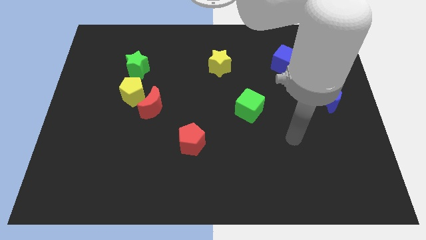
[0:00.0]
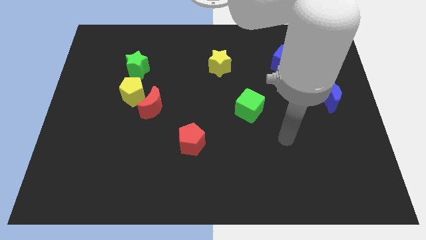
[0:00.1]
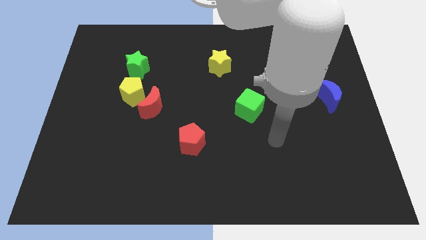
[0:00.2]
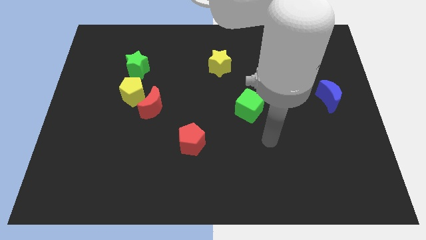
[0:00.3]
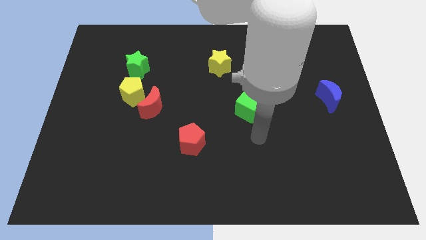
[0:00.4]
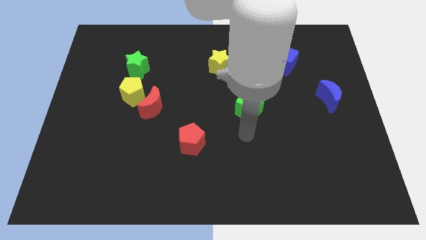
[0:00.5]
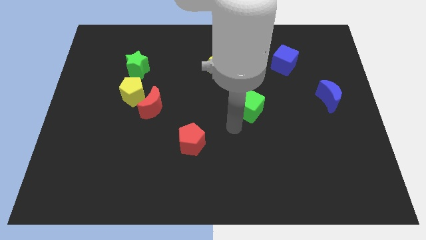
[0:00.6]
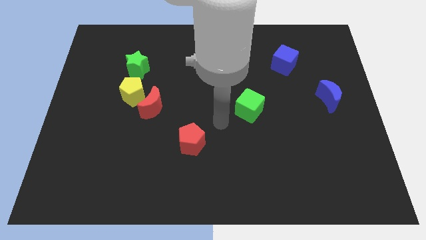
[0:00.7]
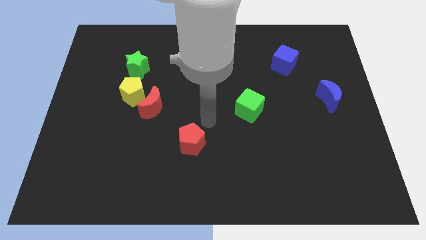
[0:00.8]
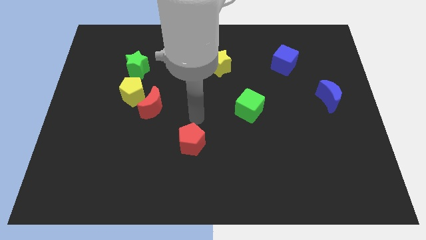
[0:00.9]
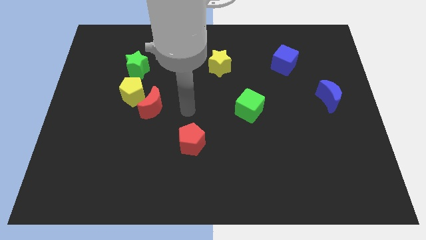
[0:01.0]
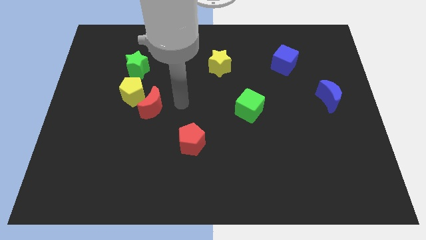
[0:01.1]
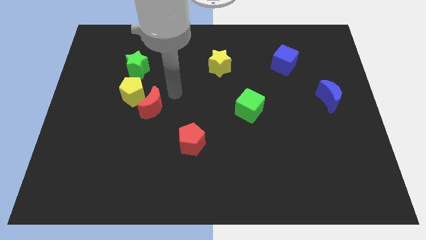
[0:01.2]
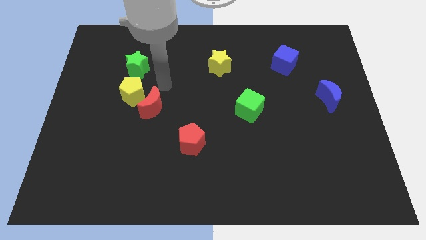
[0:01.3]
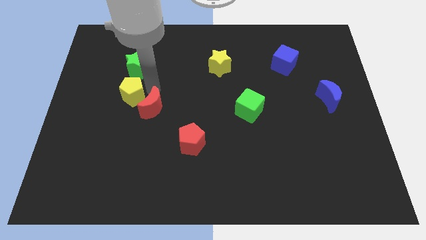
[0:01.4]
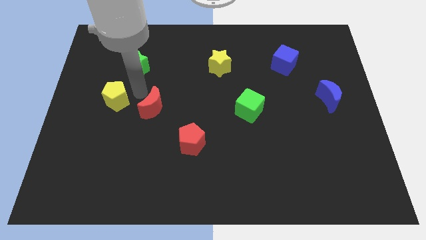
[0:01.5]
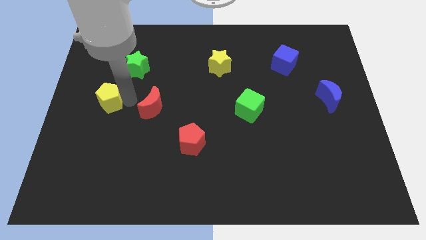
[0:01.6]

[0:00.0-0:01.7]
pull the red moon apart from the yellow pentagon

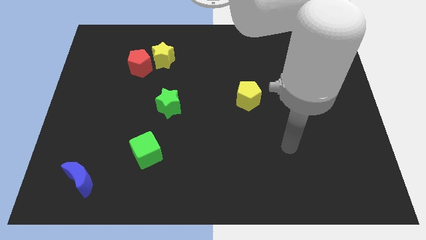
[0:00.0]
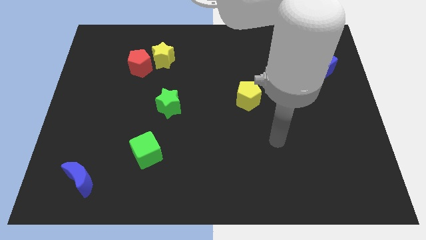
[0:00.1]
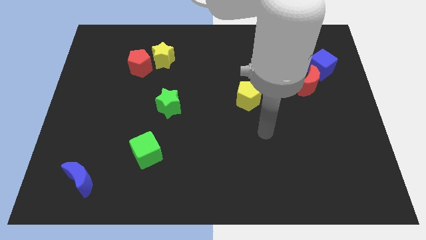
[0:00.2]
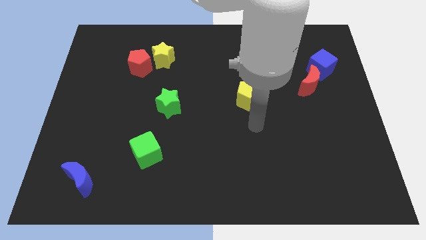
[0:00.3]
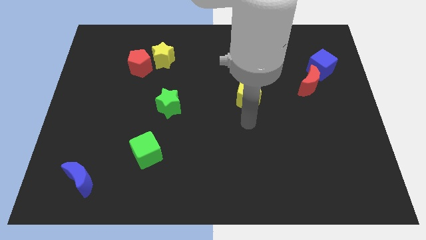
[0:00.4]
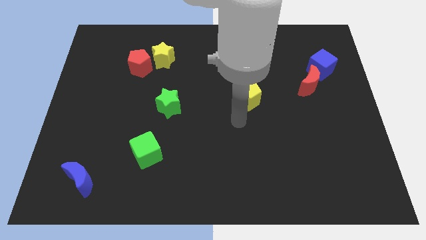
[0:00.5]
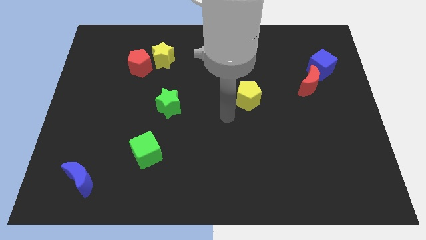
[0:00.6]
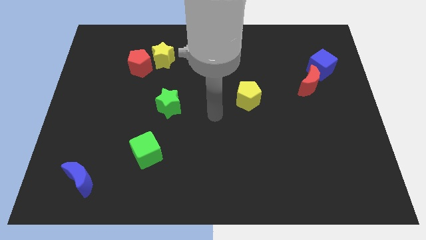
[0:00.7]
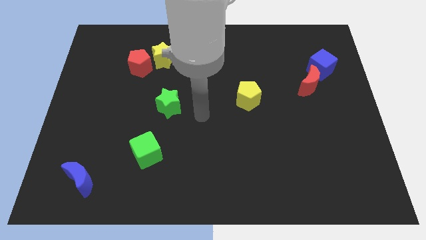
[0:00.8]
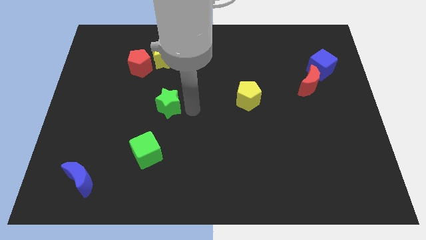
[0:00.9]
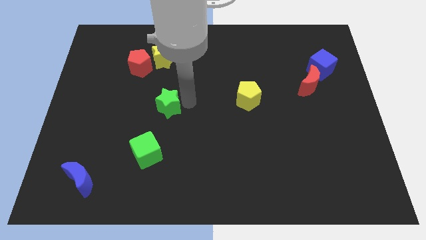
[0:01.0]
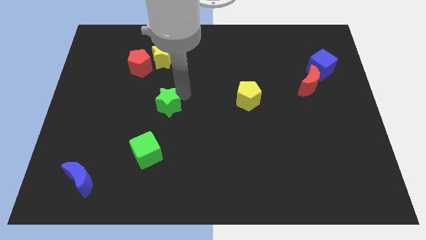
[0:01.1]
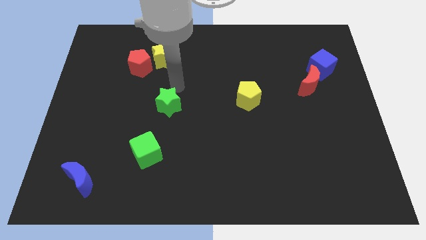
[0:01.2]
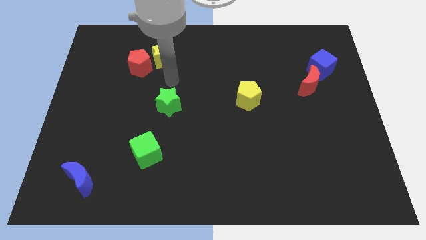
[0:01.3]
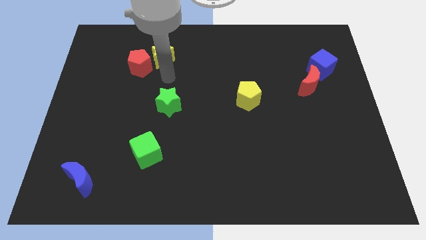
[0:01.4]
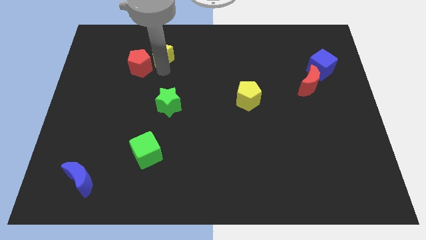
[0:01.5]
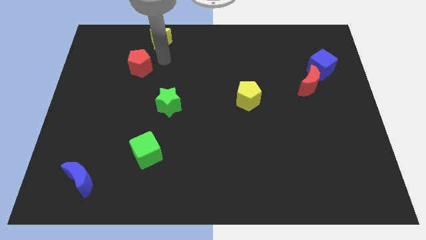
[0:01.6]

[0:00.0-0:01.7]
pull the red pentagon apart from the yellow star

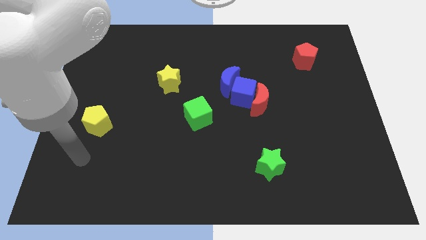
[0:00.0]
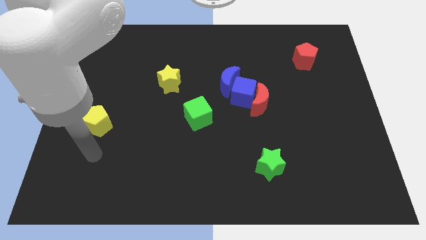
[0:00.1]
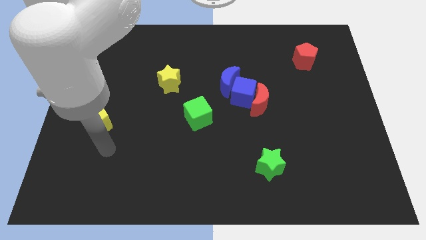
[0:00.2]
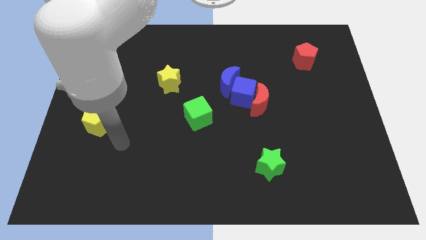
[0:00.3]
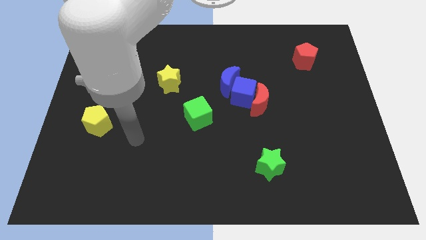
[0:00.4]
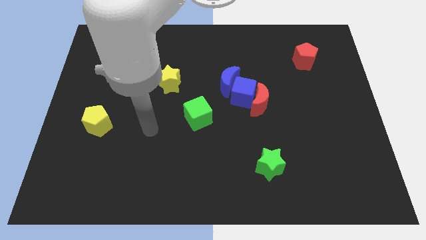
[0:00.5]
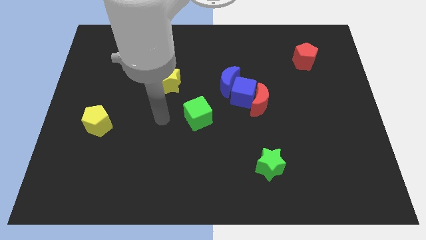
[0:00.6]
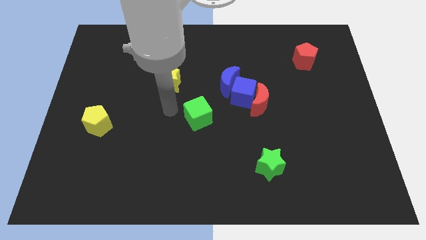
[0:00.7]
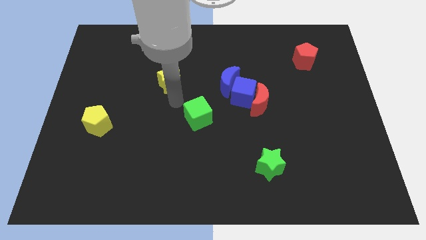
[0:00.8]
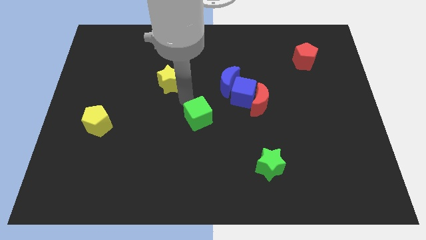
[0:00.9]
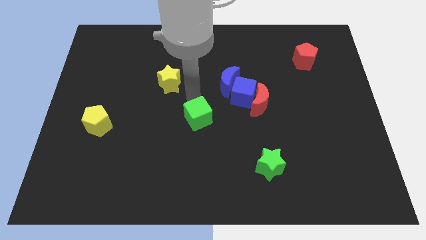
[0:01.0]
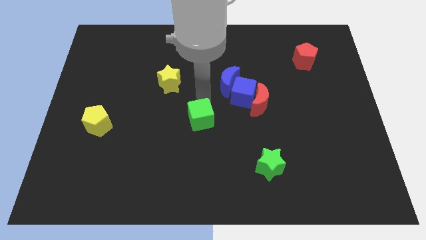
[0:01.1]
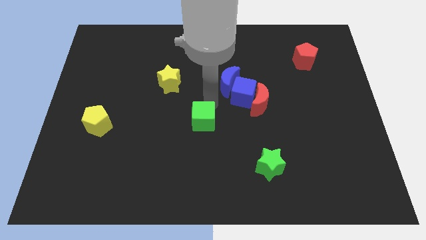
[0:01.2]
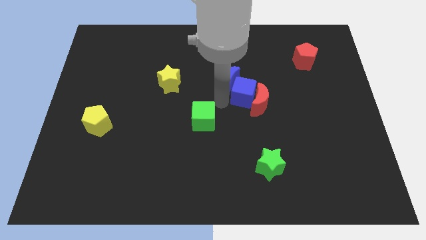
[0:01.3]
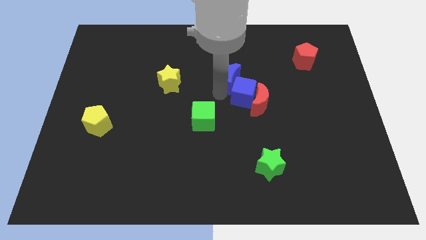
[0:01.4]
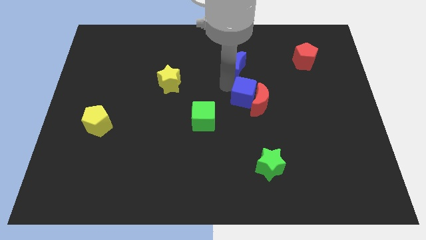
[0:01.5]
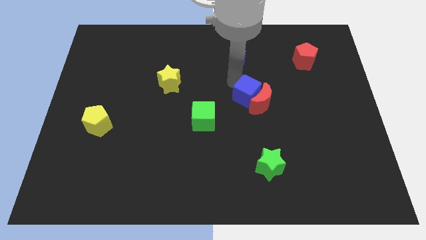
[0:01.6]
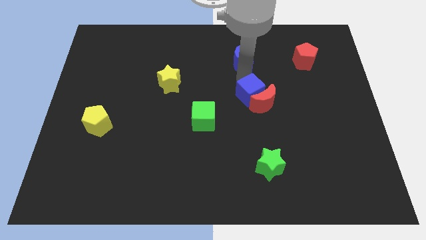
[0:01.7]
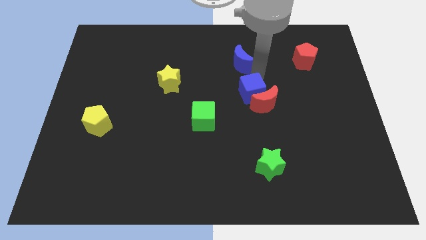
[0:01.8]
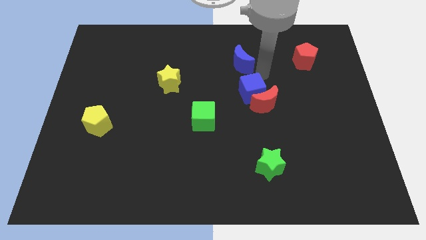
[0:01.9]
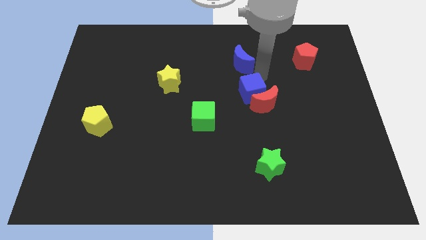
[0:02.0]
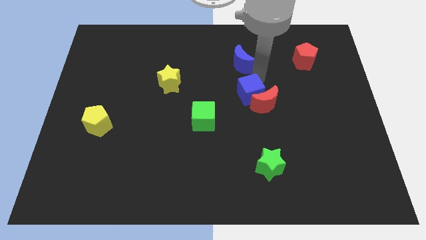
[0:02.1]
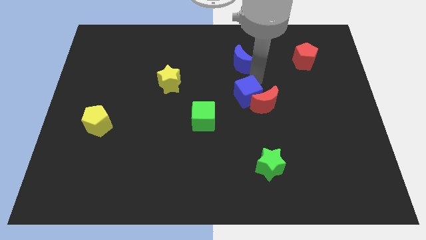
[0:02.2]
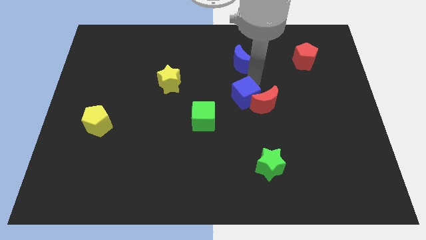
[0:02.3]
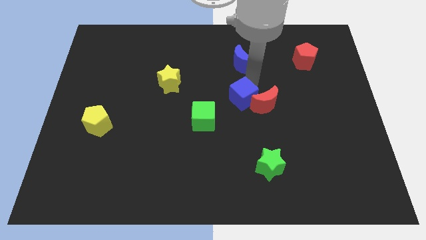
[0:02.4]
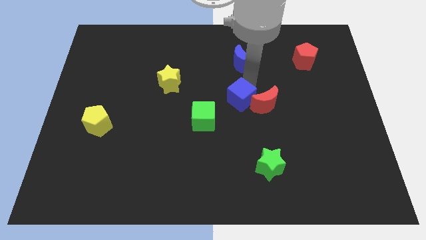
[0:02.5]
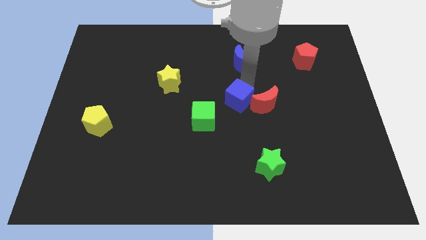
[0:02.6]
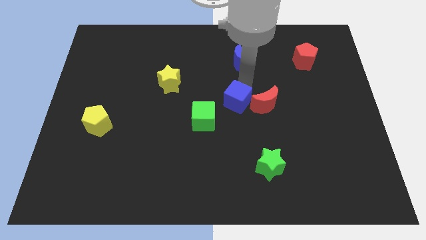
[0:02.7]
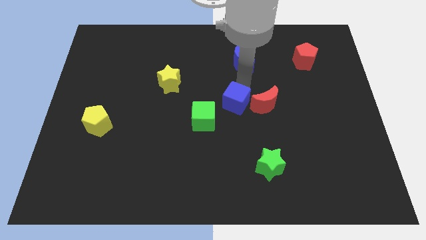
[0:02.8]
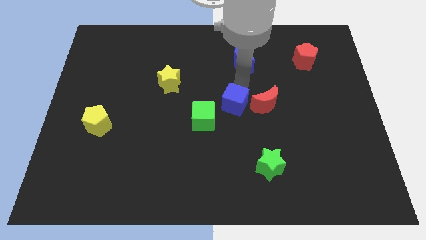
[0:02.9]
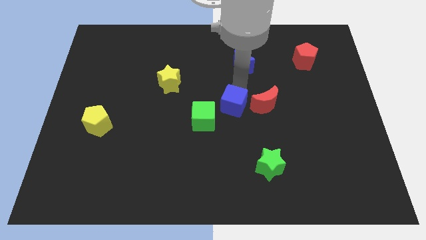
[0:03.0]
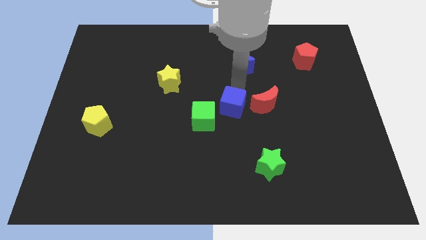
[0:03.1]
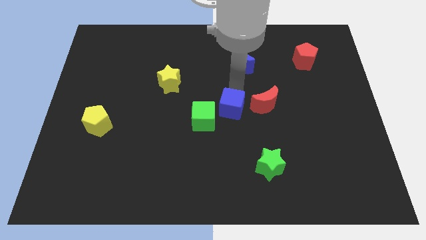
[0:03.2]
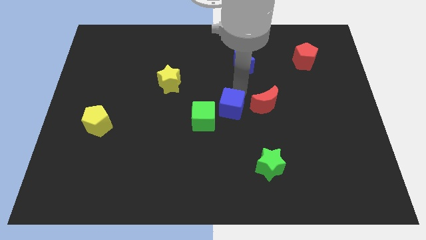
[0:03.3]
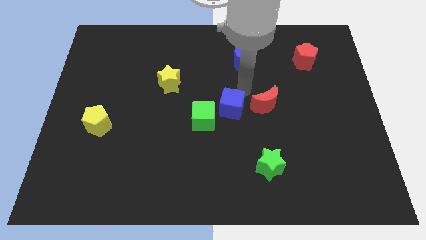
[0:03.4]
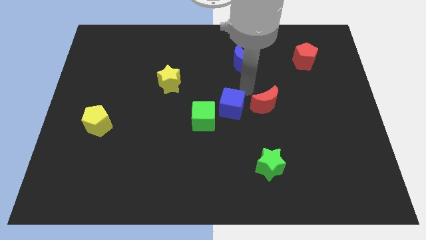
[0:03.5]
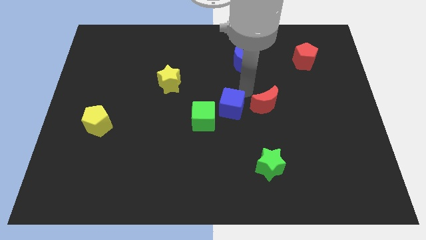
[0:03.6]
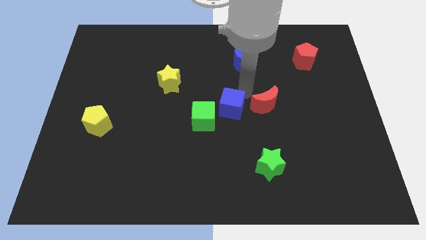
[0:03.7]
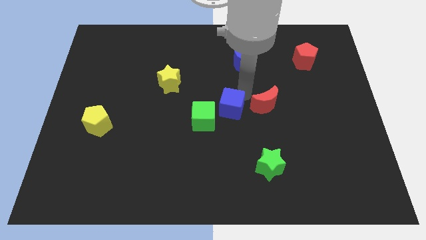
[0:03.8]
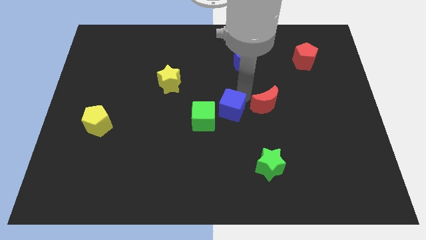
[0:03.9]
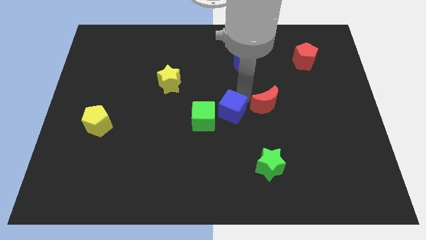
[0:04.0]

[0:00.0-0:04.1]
move the blue cube away from the red moon and blue moon

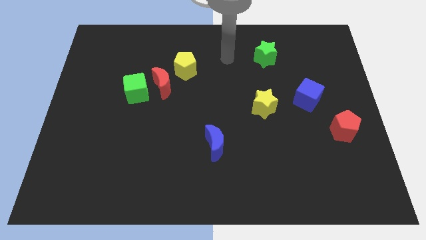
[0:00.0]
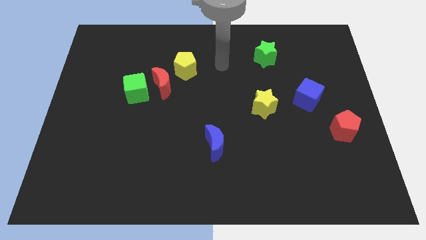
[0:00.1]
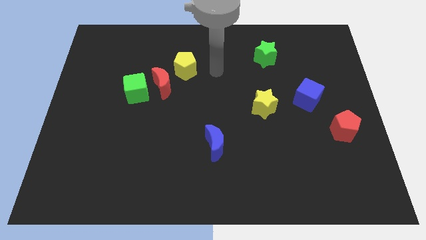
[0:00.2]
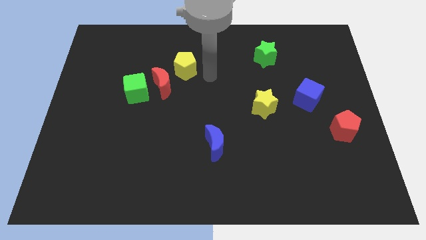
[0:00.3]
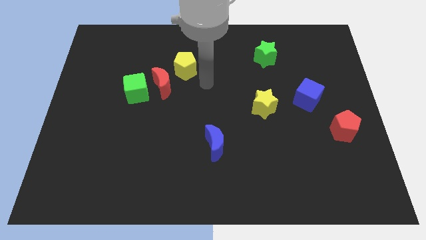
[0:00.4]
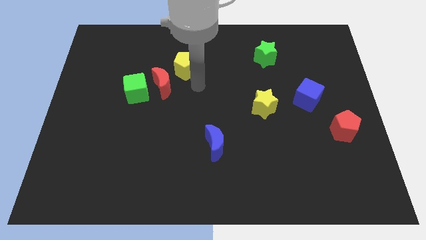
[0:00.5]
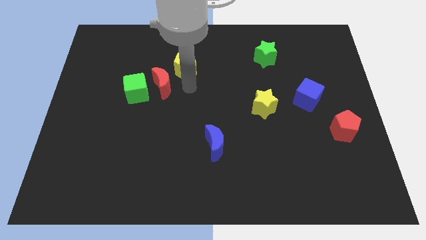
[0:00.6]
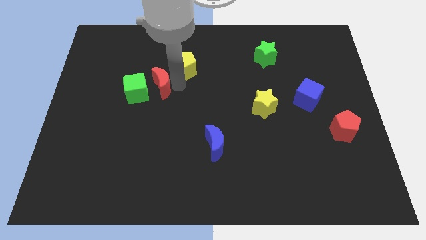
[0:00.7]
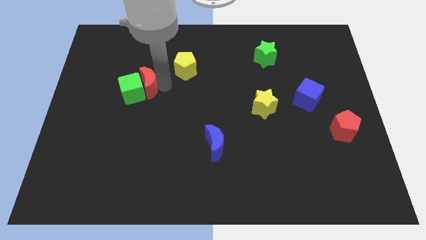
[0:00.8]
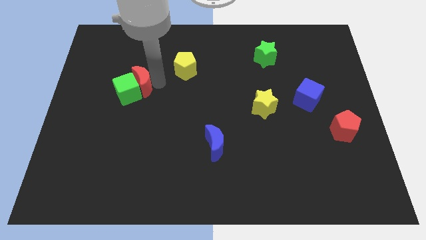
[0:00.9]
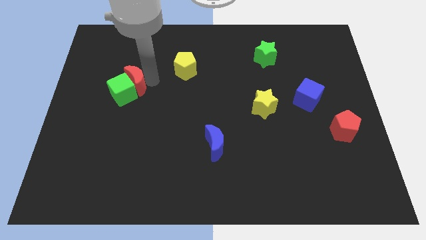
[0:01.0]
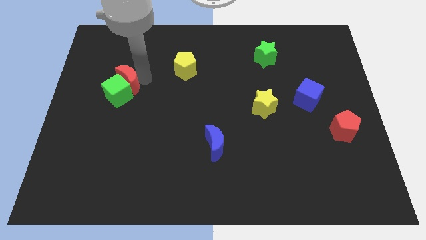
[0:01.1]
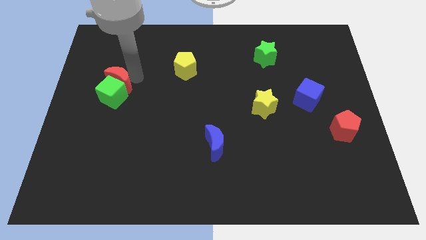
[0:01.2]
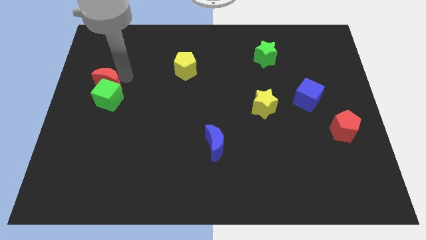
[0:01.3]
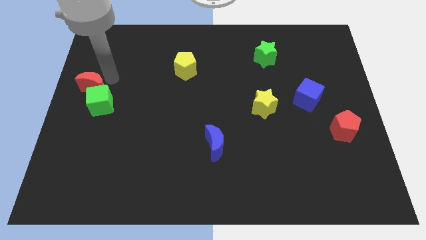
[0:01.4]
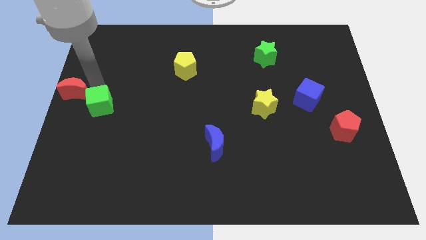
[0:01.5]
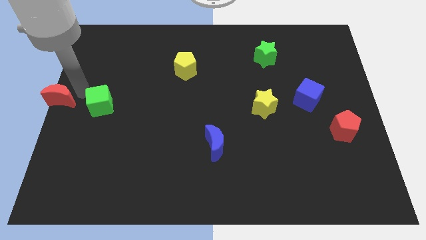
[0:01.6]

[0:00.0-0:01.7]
move the green cube away from the red moon

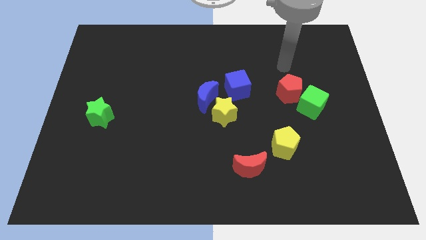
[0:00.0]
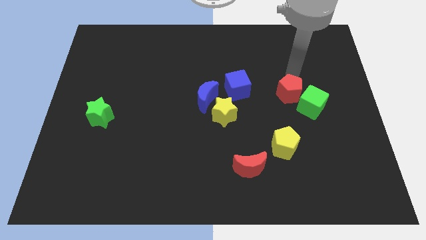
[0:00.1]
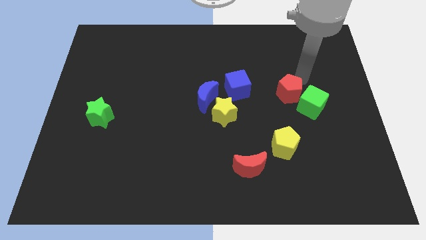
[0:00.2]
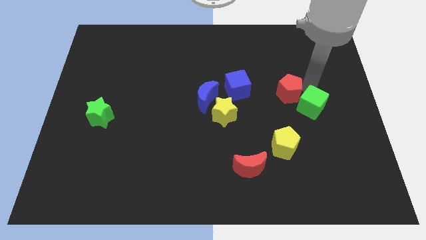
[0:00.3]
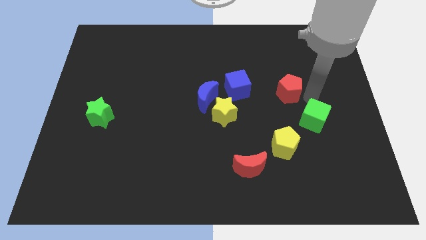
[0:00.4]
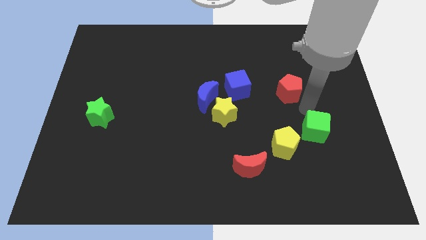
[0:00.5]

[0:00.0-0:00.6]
pull the red pentagon apart from the green cube
